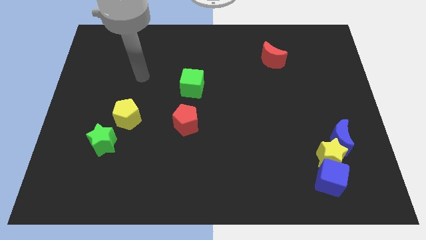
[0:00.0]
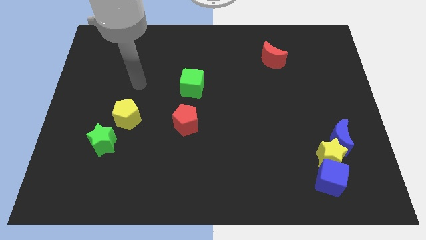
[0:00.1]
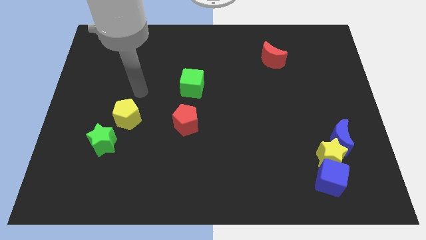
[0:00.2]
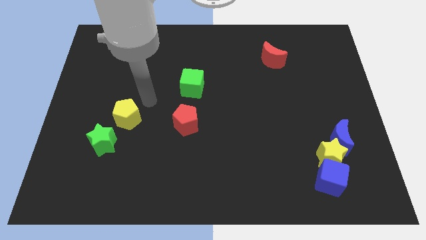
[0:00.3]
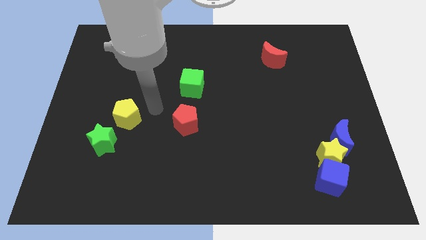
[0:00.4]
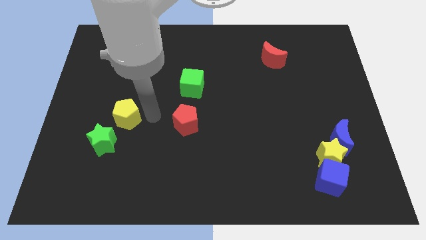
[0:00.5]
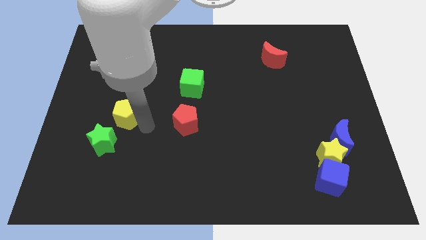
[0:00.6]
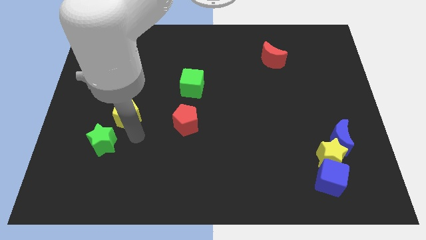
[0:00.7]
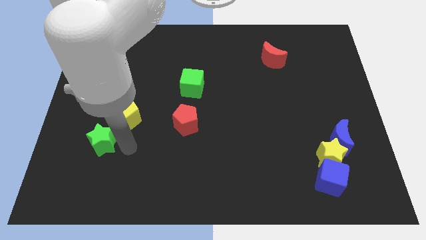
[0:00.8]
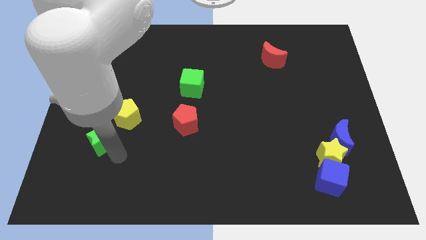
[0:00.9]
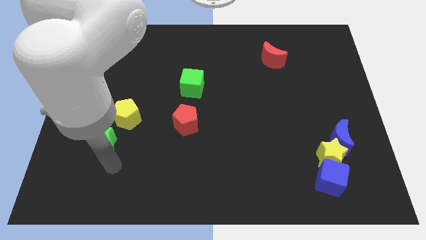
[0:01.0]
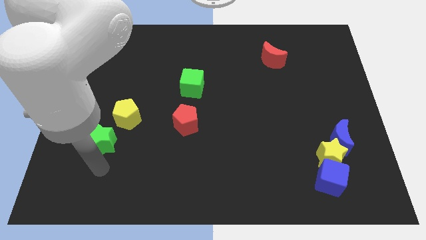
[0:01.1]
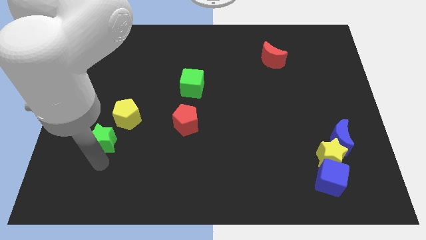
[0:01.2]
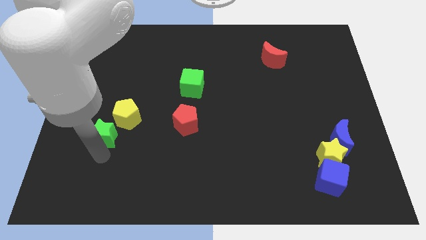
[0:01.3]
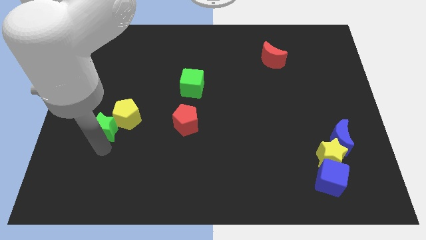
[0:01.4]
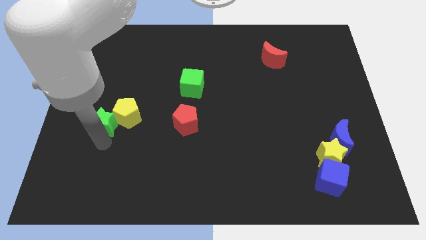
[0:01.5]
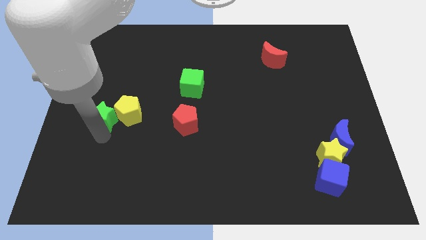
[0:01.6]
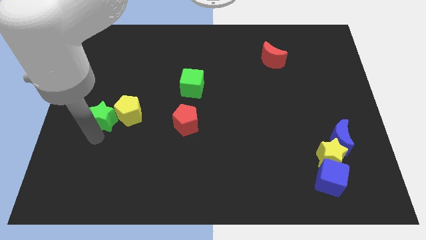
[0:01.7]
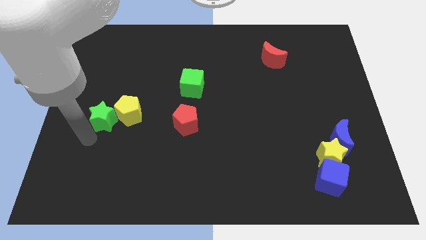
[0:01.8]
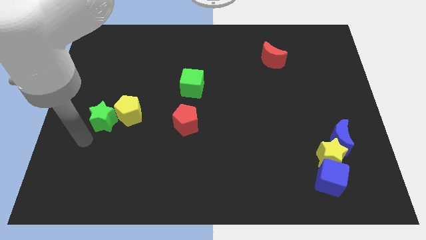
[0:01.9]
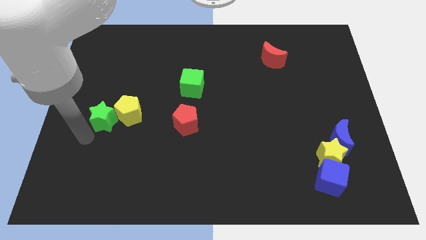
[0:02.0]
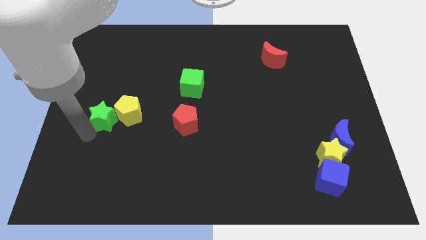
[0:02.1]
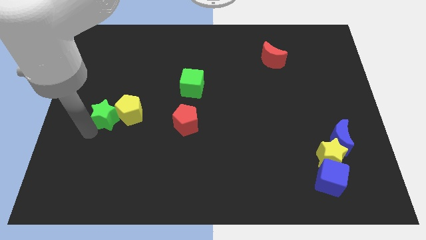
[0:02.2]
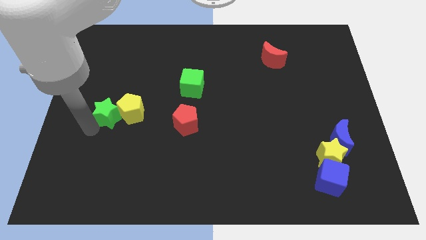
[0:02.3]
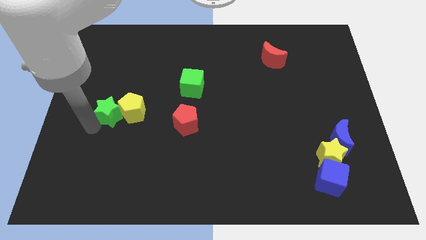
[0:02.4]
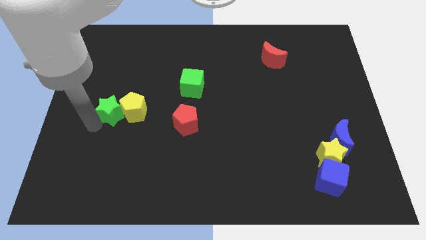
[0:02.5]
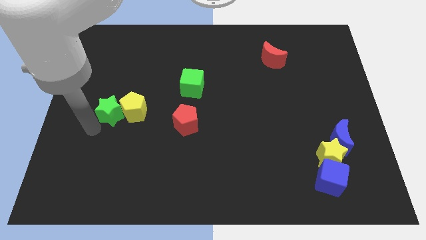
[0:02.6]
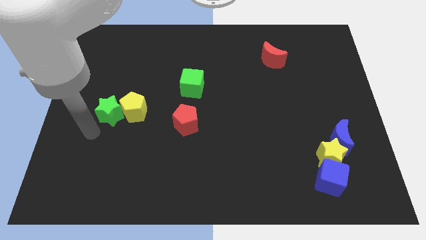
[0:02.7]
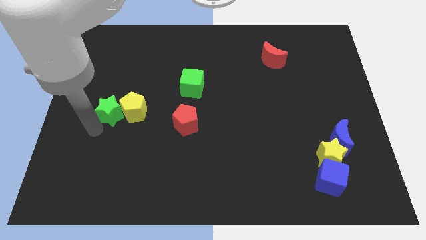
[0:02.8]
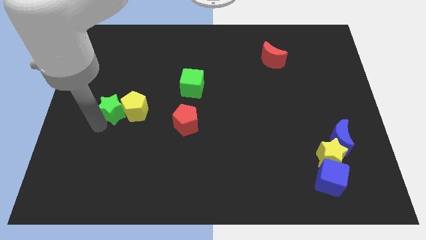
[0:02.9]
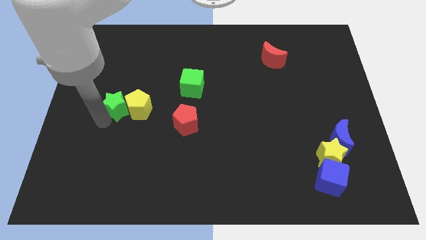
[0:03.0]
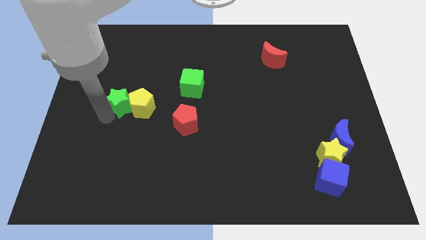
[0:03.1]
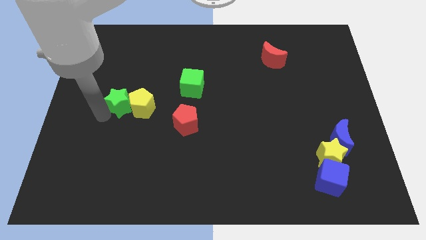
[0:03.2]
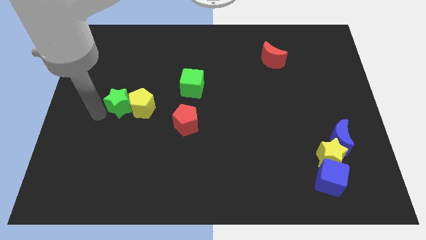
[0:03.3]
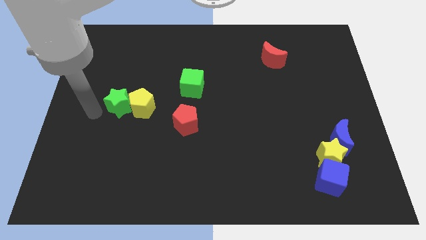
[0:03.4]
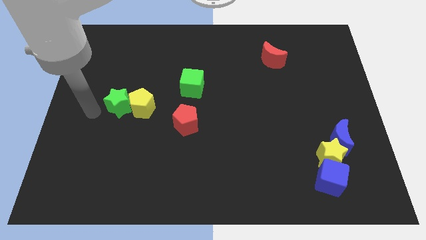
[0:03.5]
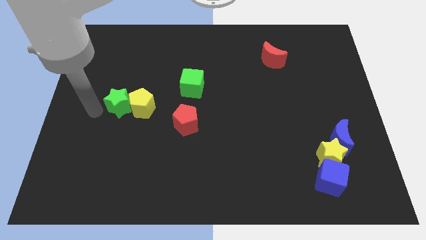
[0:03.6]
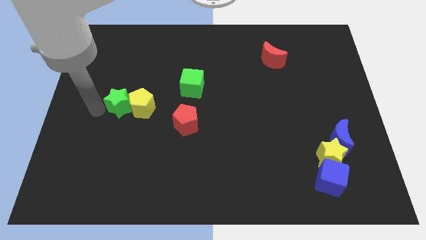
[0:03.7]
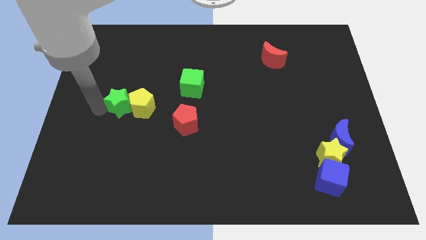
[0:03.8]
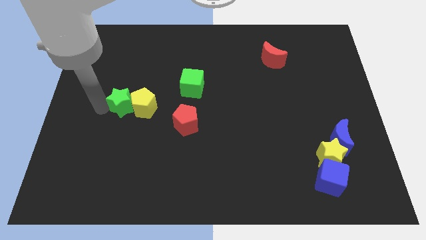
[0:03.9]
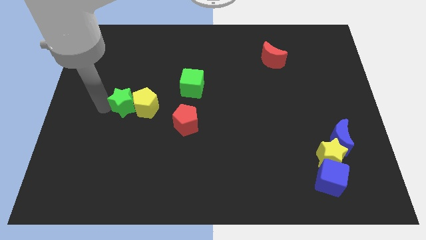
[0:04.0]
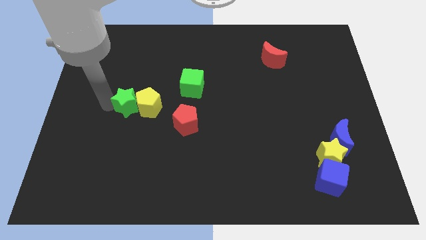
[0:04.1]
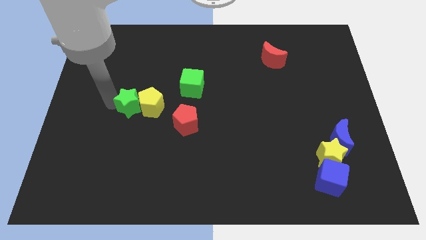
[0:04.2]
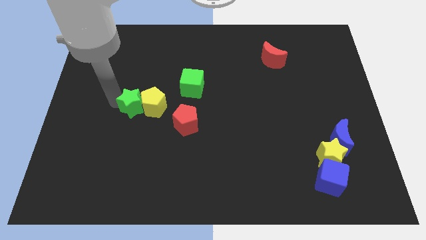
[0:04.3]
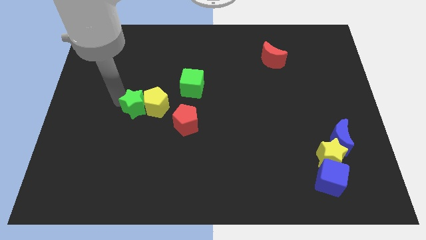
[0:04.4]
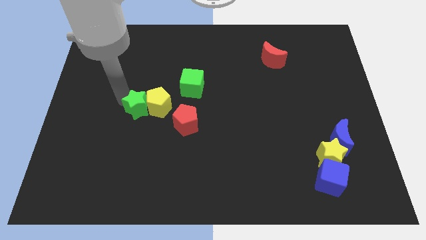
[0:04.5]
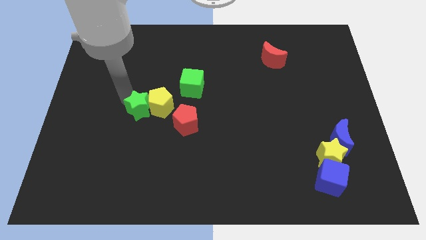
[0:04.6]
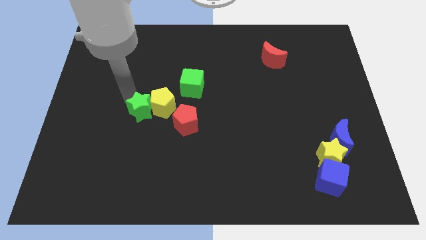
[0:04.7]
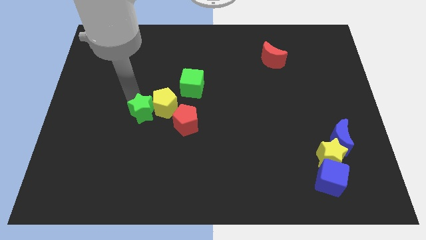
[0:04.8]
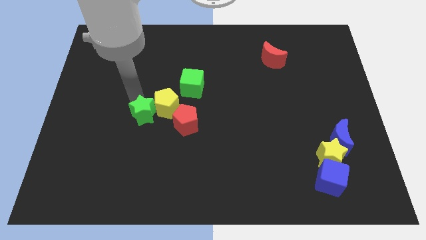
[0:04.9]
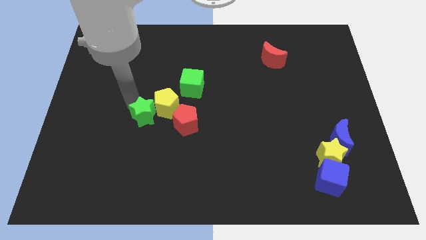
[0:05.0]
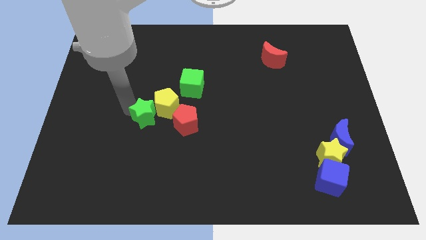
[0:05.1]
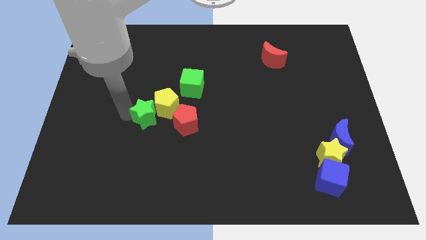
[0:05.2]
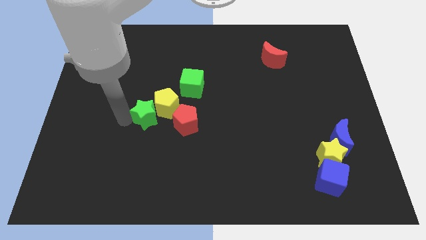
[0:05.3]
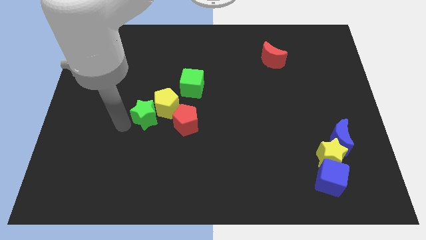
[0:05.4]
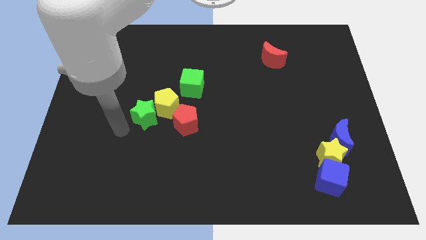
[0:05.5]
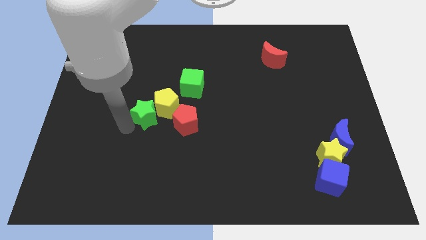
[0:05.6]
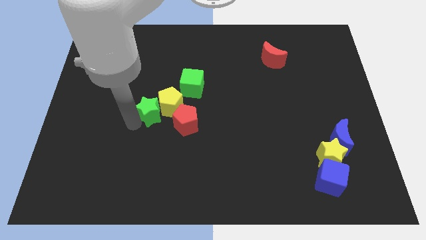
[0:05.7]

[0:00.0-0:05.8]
slide the green star to the bottom left of the green cube

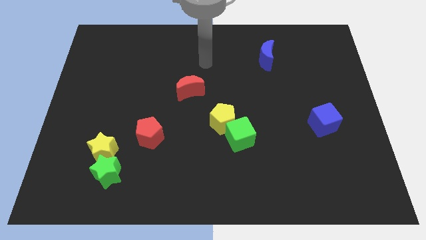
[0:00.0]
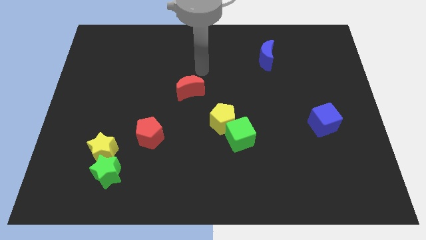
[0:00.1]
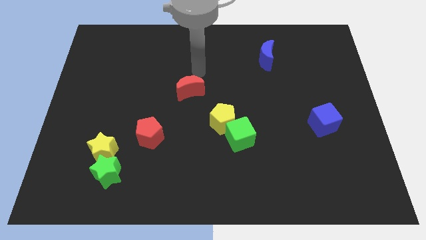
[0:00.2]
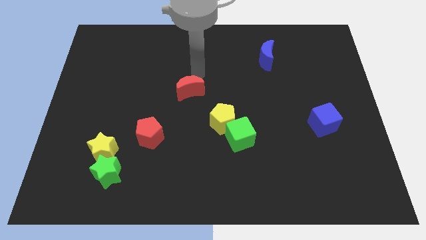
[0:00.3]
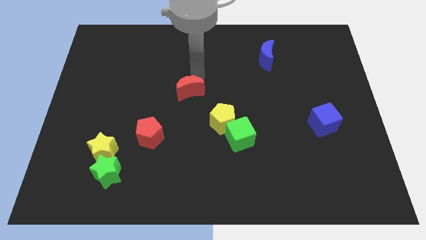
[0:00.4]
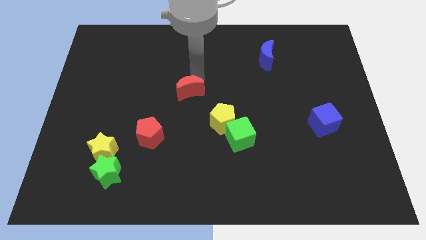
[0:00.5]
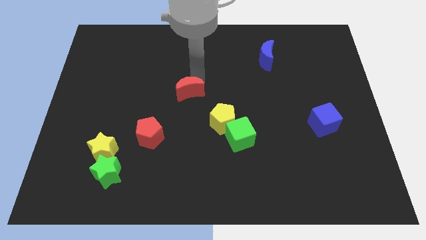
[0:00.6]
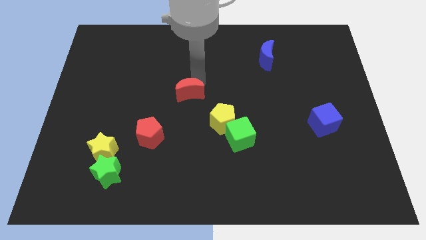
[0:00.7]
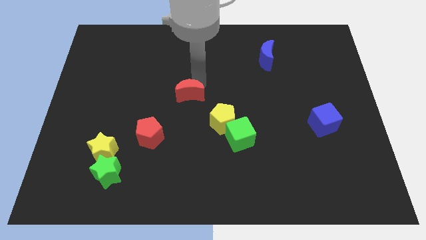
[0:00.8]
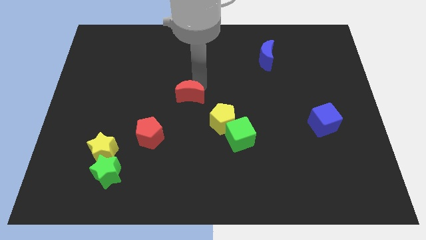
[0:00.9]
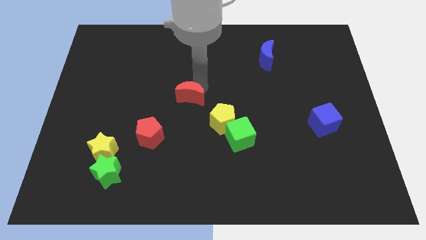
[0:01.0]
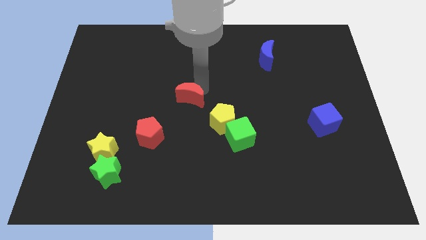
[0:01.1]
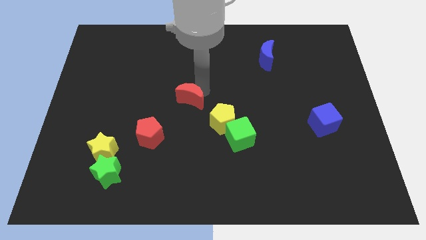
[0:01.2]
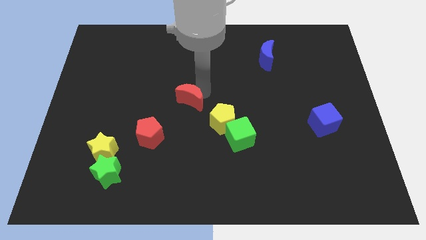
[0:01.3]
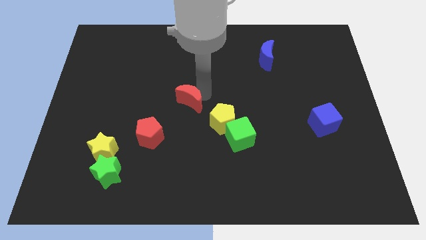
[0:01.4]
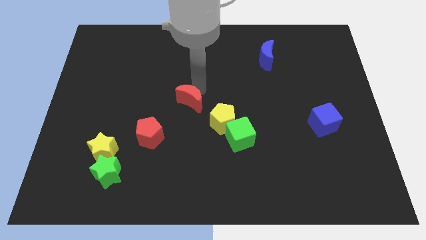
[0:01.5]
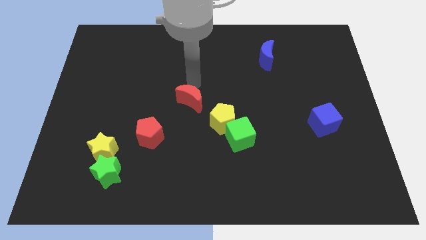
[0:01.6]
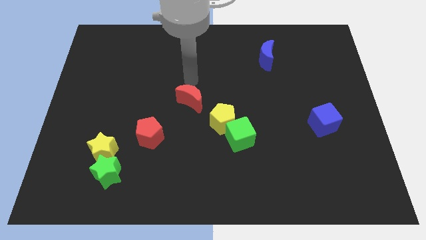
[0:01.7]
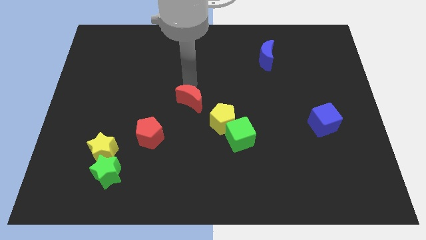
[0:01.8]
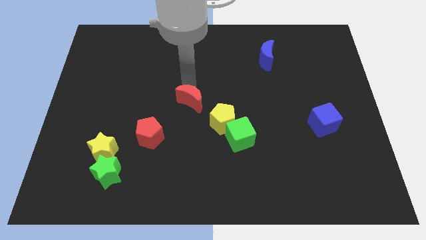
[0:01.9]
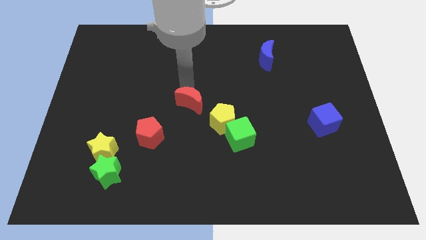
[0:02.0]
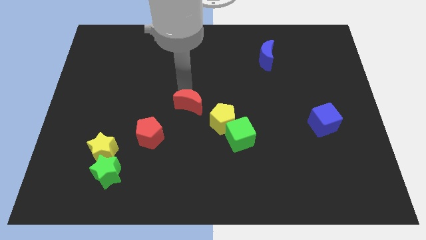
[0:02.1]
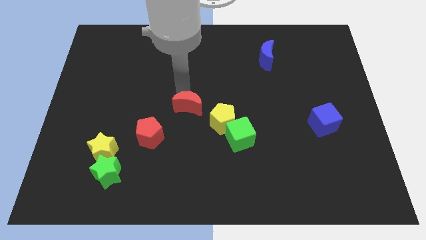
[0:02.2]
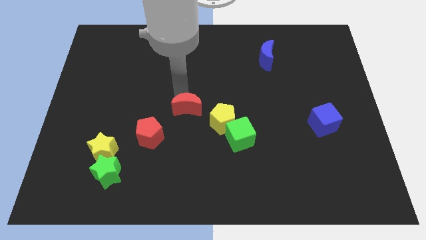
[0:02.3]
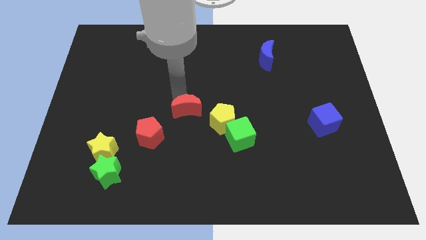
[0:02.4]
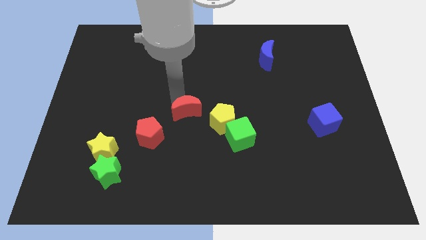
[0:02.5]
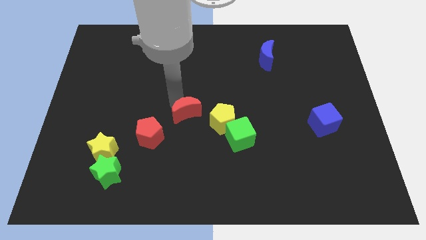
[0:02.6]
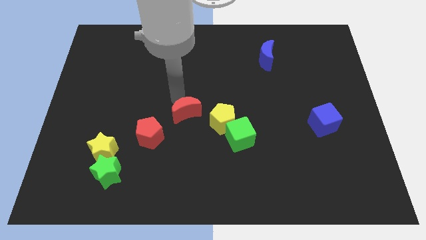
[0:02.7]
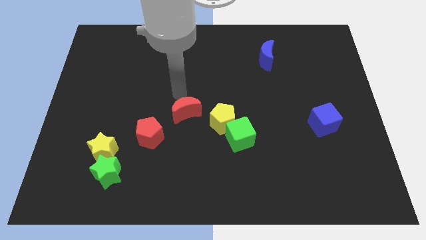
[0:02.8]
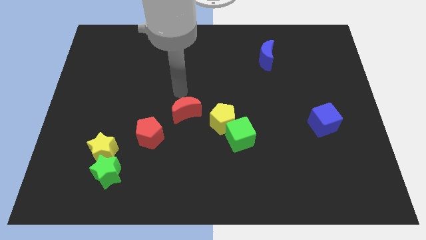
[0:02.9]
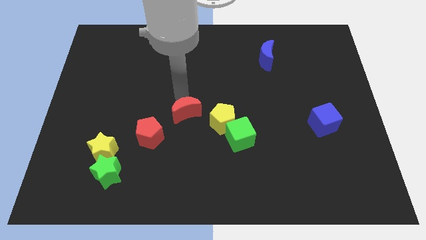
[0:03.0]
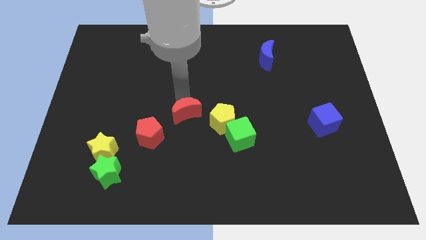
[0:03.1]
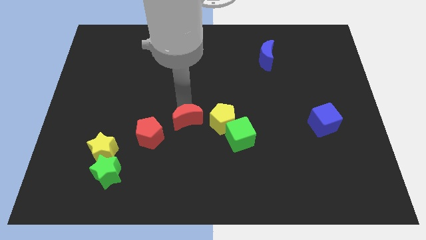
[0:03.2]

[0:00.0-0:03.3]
slide the red moon to the left of the green cube
